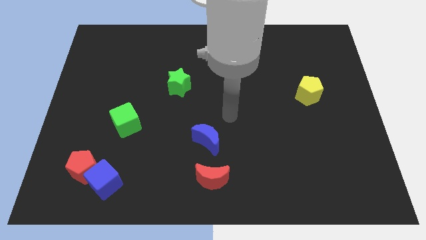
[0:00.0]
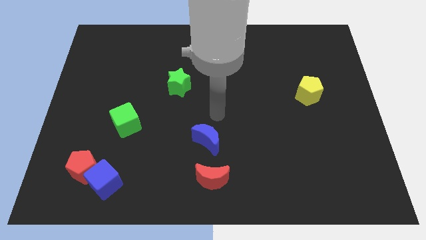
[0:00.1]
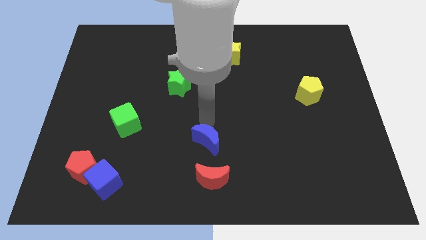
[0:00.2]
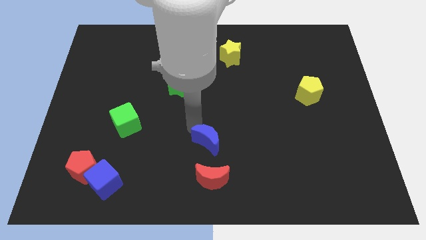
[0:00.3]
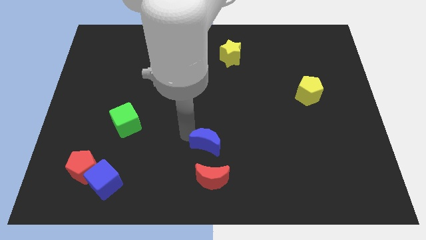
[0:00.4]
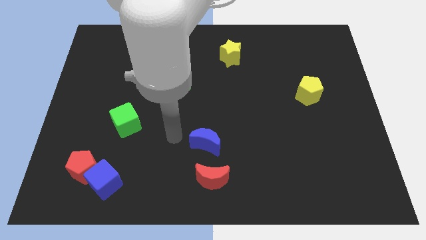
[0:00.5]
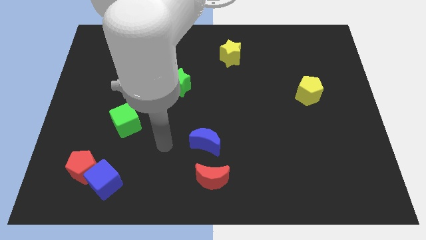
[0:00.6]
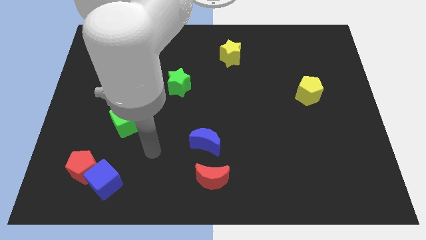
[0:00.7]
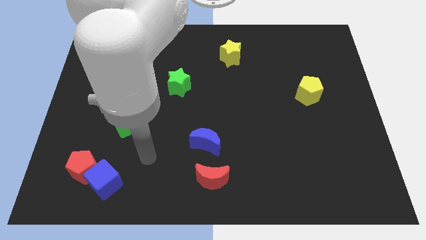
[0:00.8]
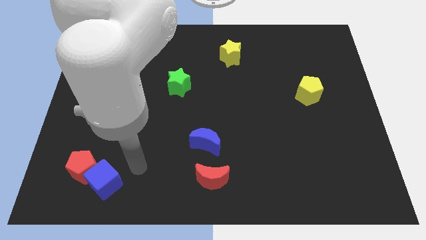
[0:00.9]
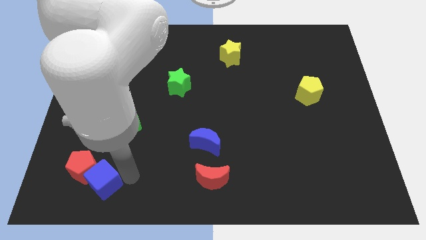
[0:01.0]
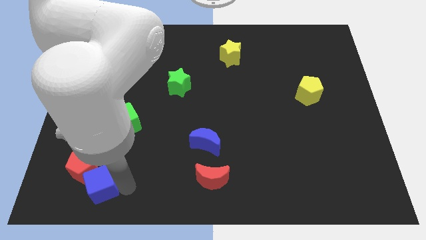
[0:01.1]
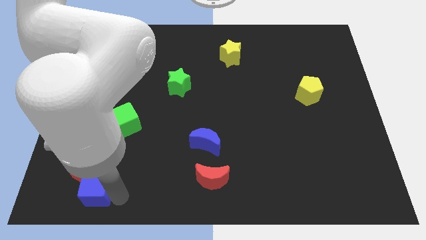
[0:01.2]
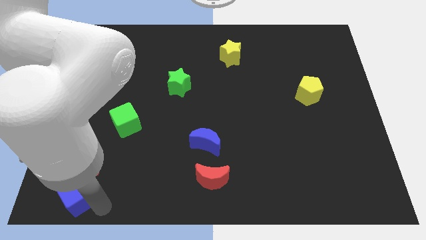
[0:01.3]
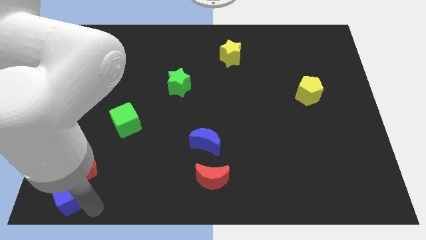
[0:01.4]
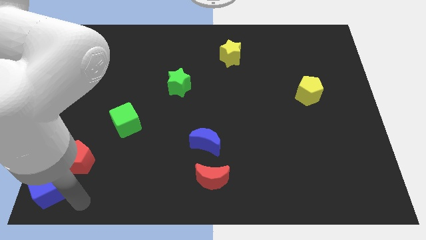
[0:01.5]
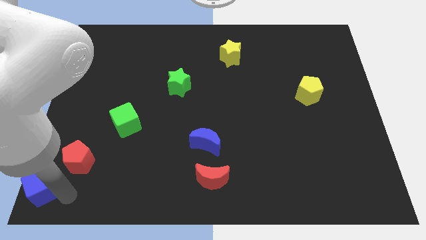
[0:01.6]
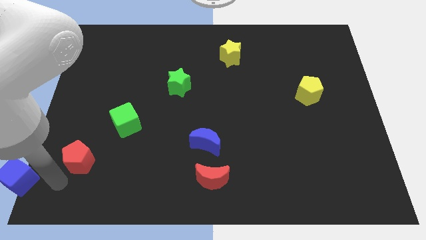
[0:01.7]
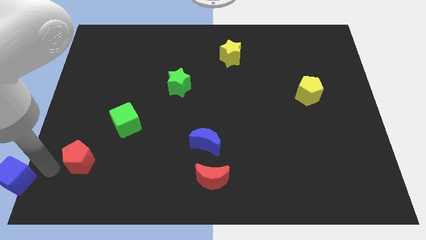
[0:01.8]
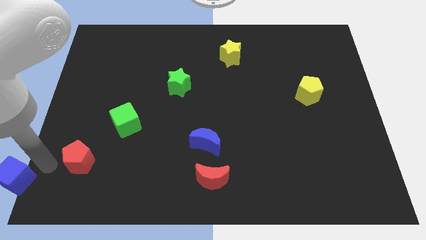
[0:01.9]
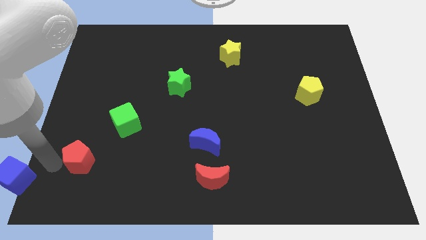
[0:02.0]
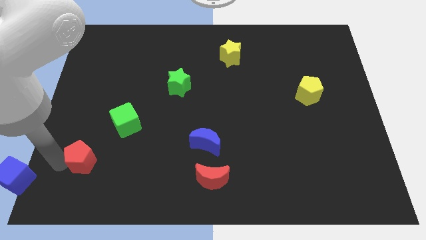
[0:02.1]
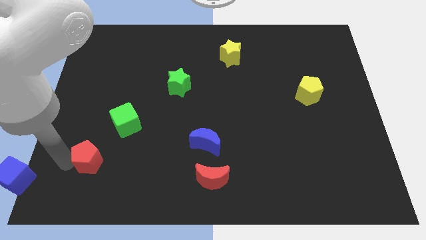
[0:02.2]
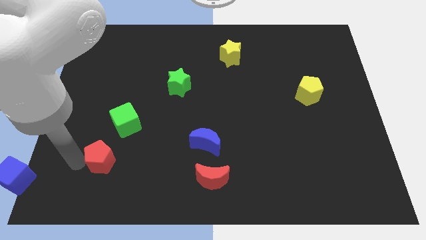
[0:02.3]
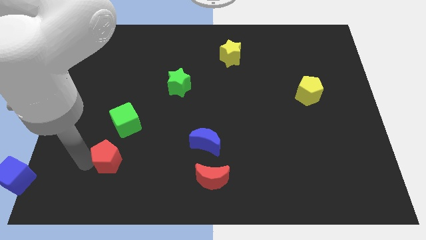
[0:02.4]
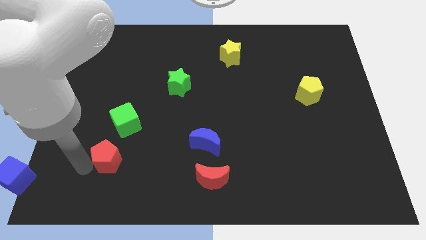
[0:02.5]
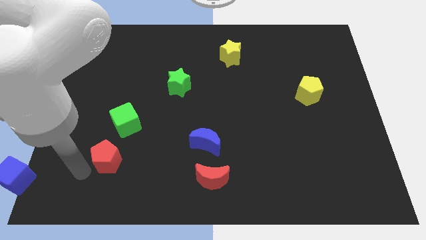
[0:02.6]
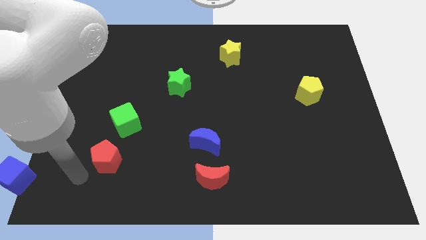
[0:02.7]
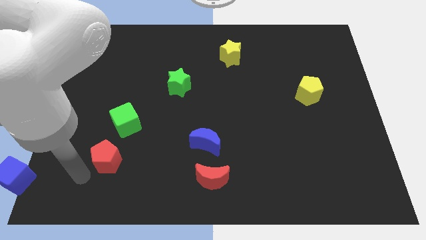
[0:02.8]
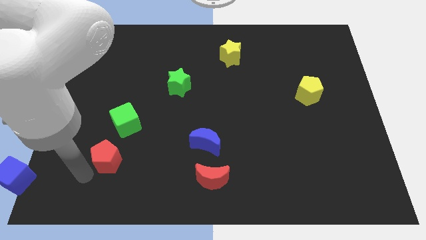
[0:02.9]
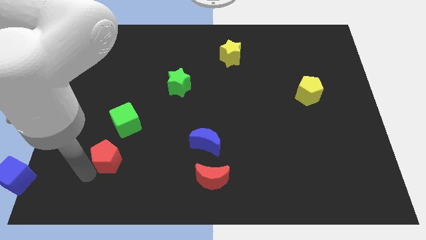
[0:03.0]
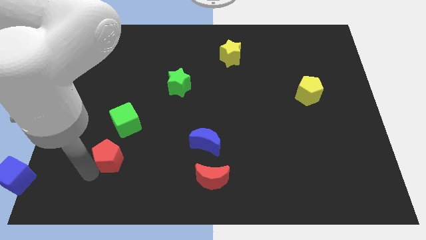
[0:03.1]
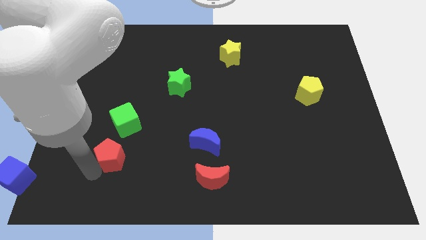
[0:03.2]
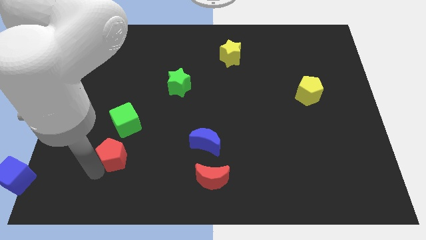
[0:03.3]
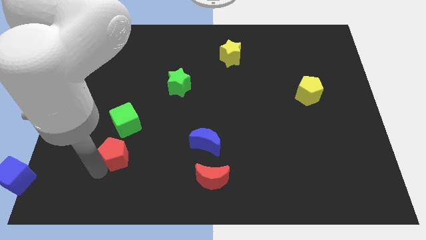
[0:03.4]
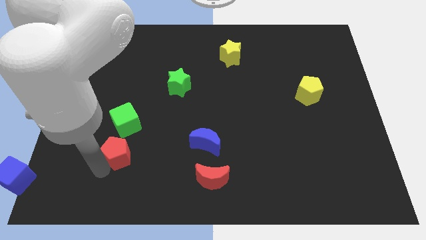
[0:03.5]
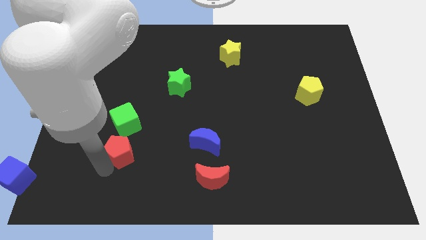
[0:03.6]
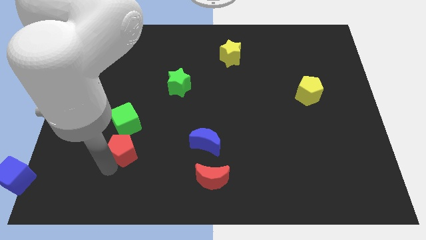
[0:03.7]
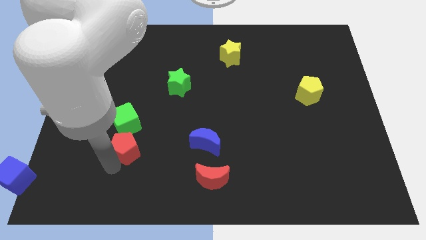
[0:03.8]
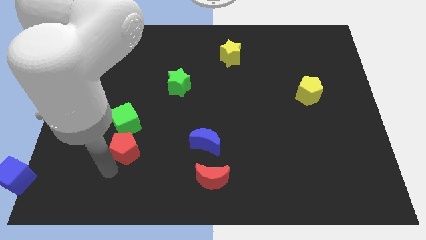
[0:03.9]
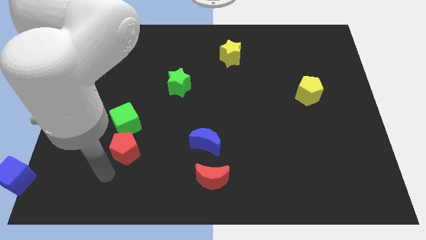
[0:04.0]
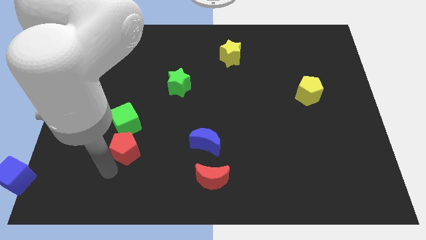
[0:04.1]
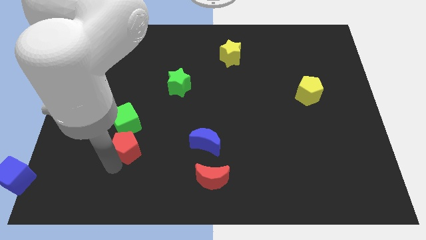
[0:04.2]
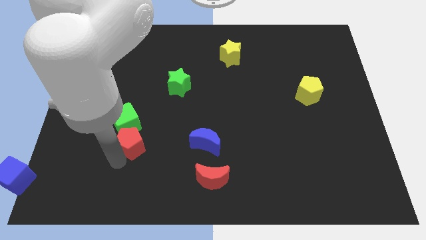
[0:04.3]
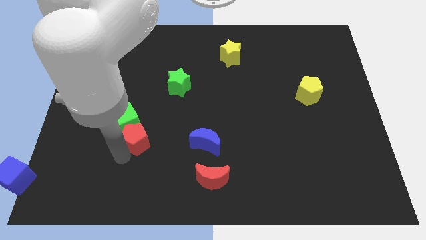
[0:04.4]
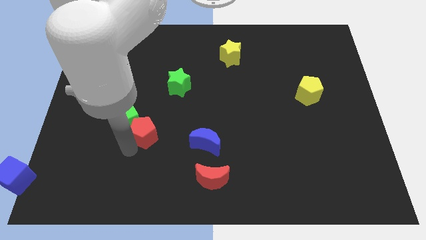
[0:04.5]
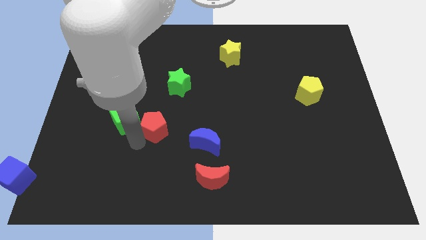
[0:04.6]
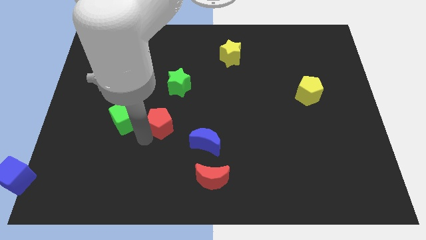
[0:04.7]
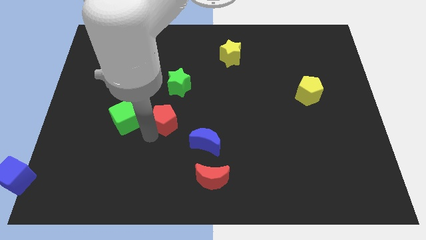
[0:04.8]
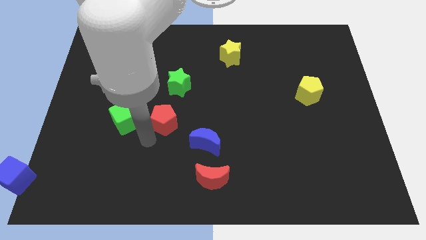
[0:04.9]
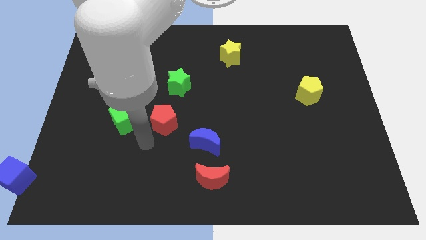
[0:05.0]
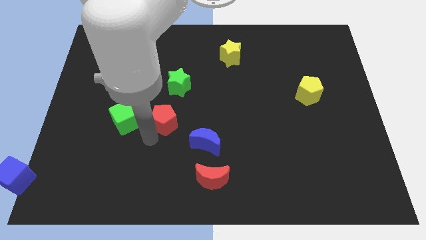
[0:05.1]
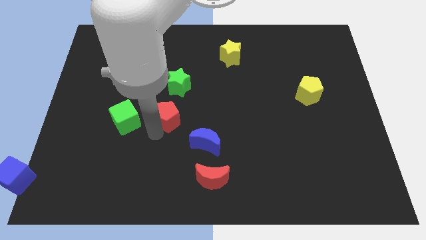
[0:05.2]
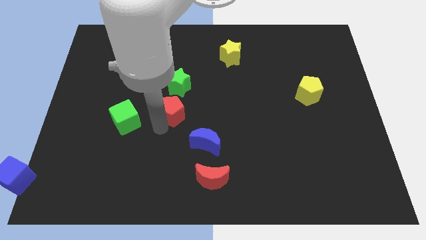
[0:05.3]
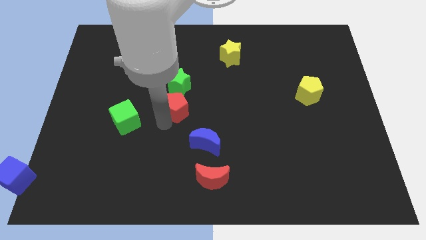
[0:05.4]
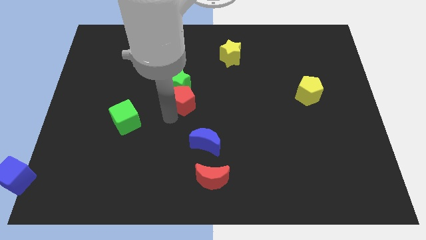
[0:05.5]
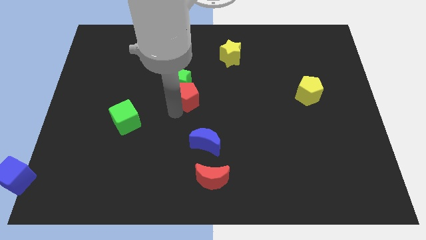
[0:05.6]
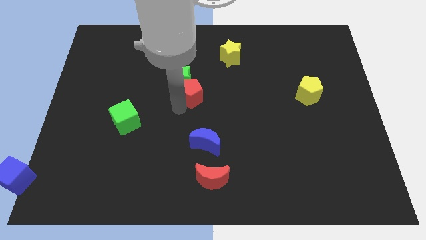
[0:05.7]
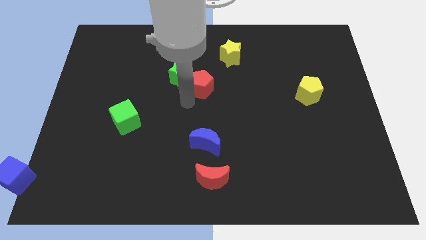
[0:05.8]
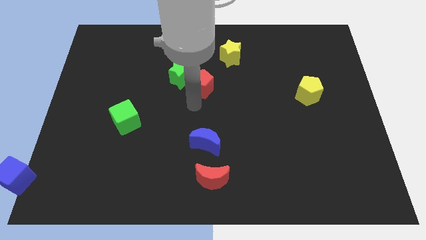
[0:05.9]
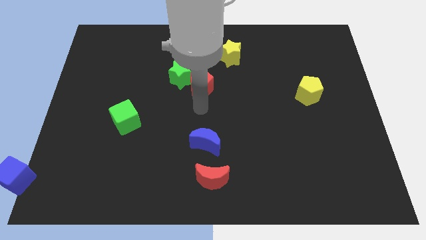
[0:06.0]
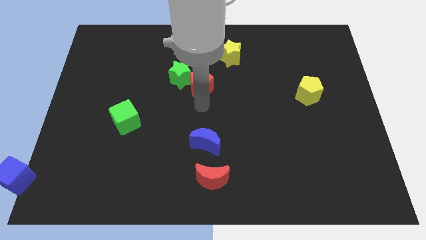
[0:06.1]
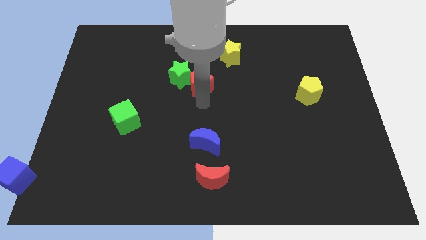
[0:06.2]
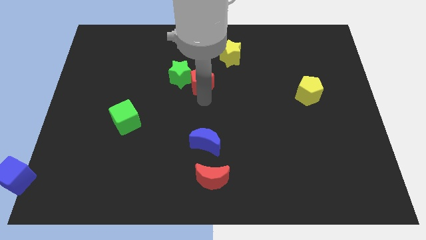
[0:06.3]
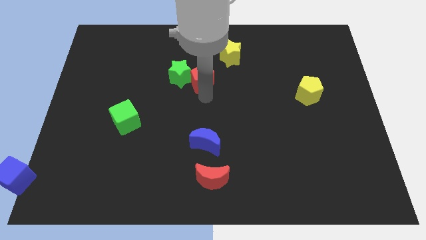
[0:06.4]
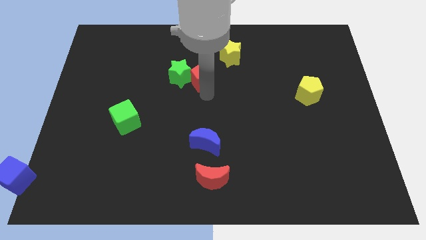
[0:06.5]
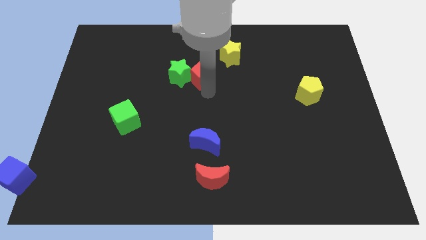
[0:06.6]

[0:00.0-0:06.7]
move the red pentagon diagonally up and to the right of the green star
